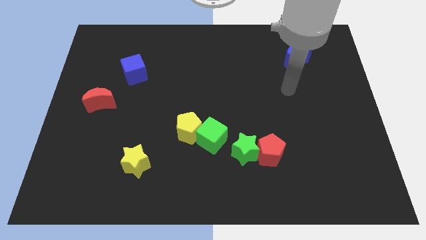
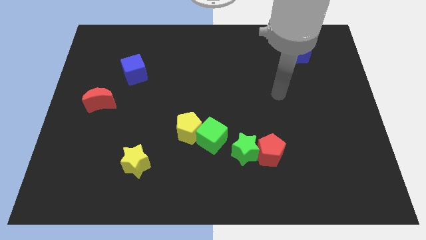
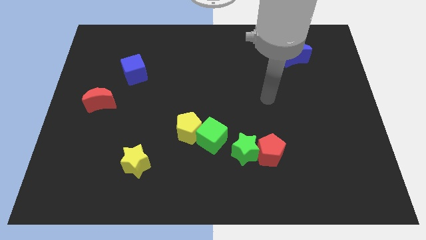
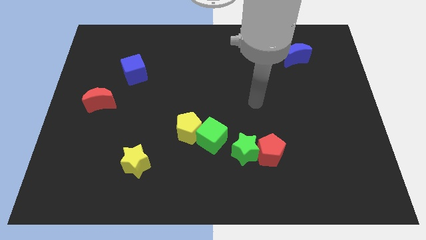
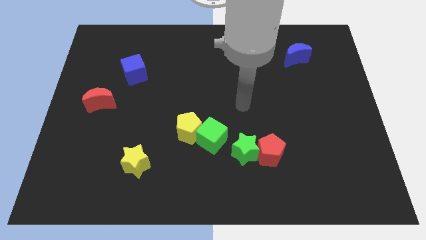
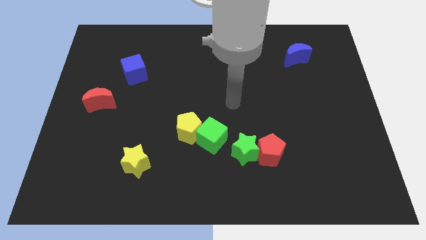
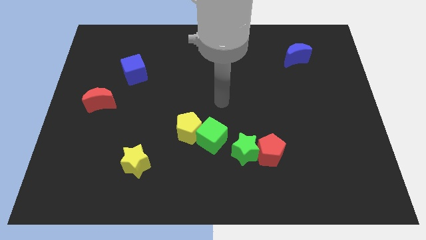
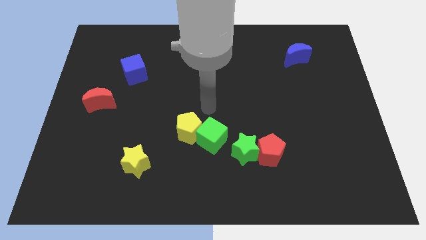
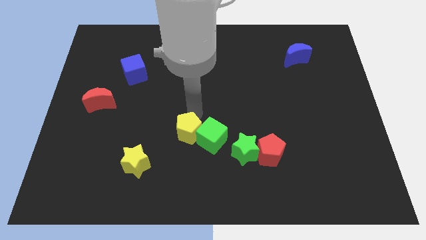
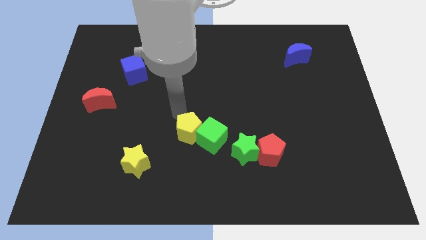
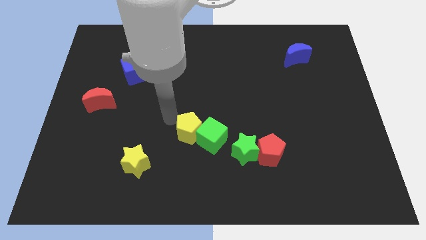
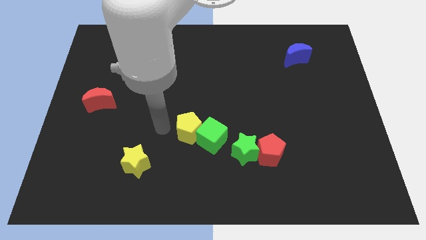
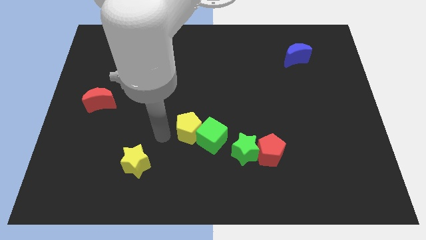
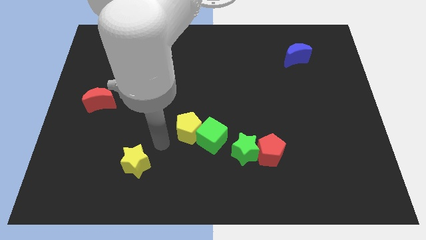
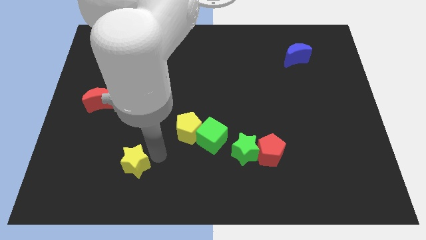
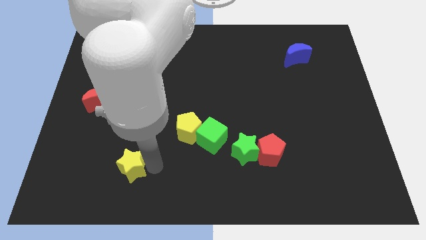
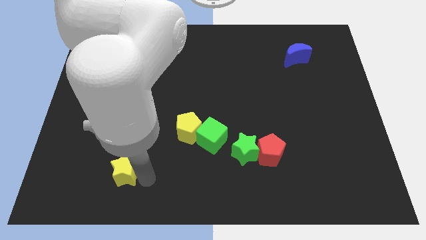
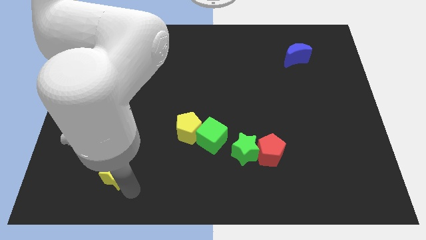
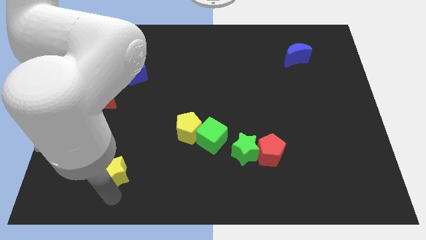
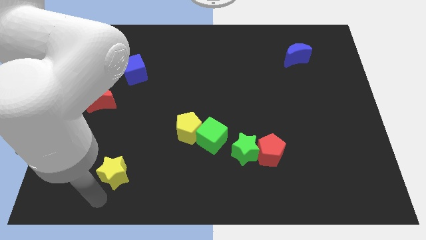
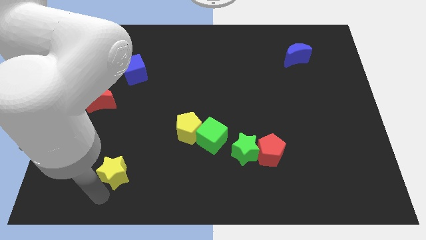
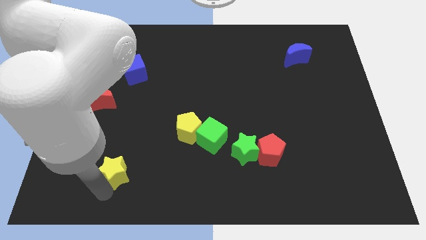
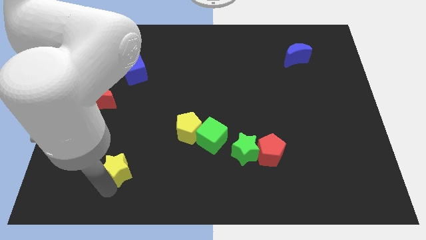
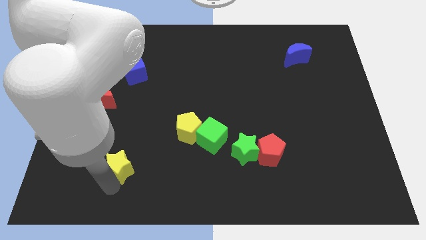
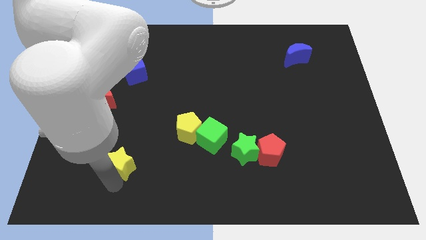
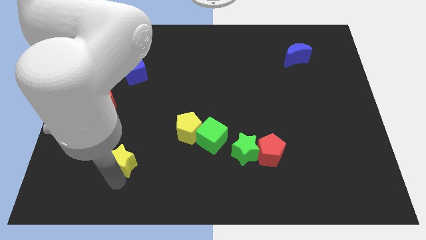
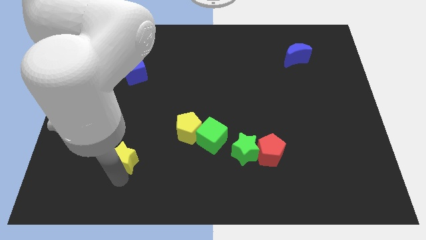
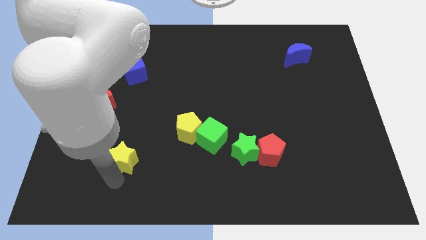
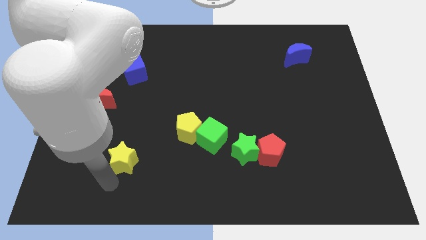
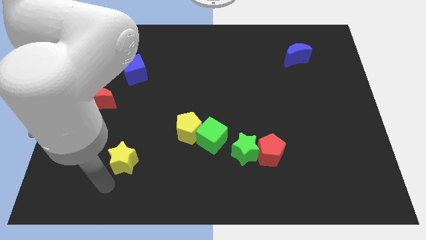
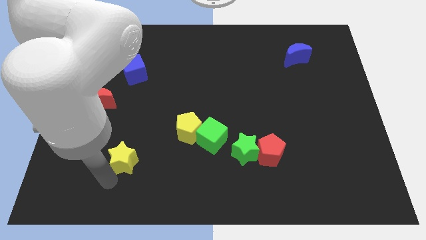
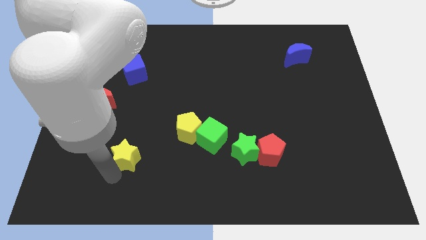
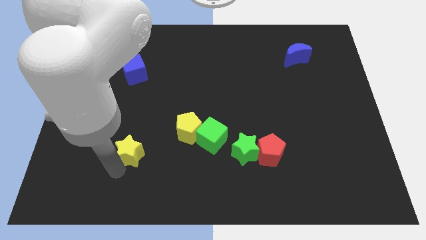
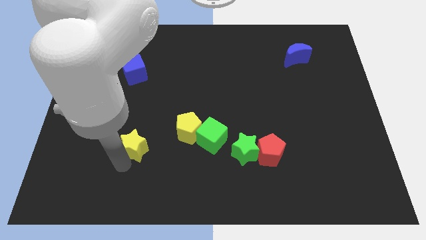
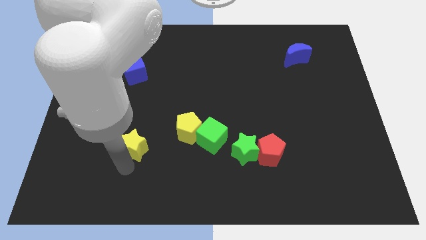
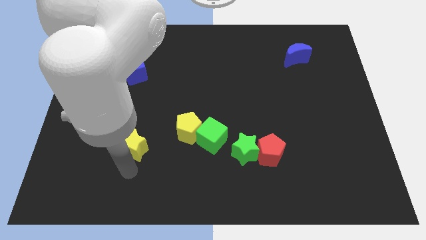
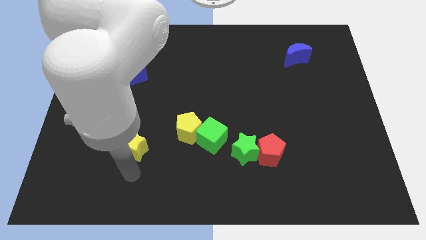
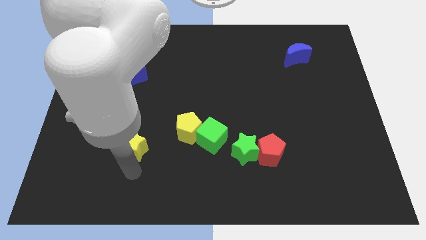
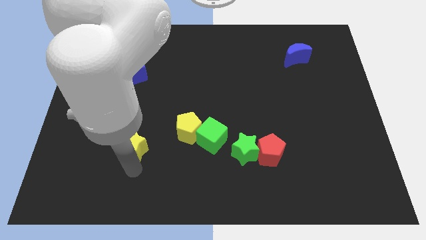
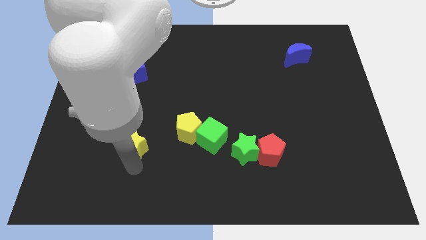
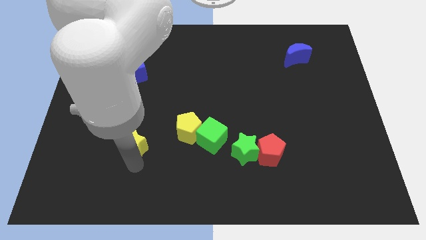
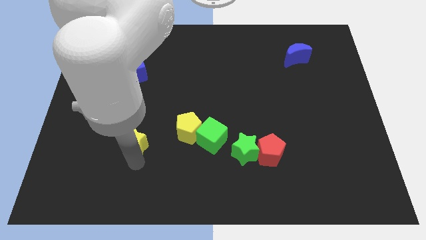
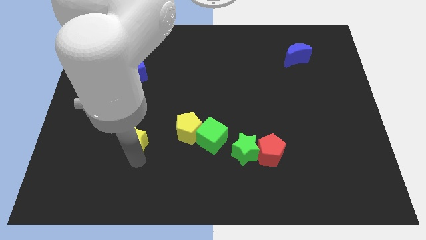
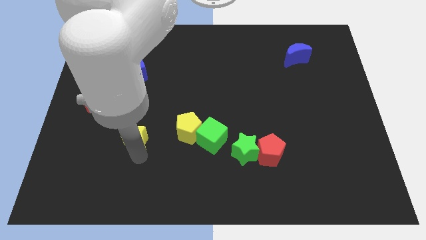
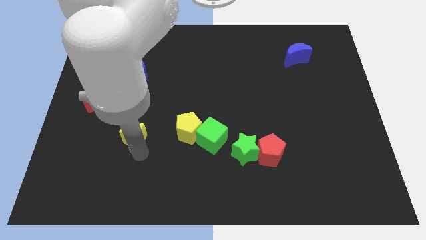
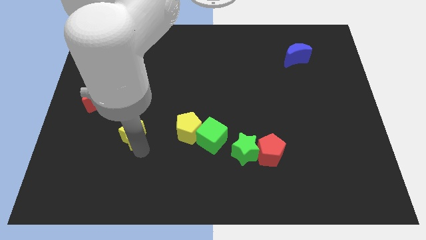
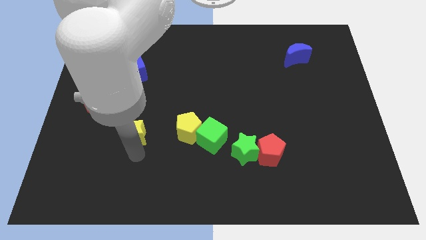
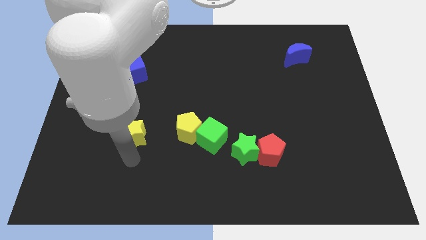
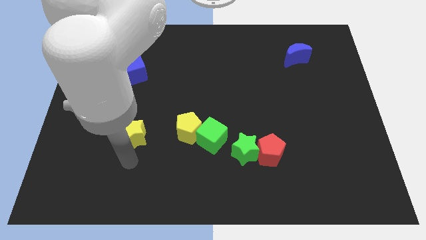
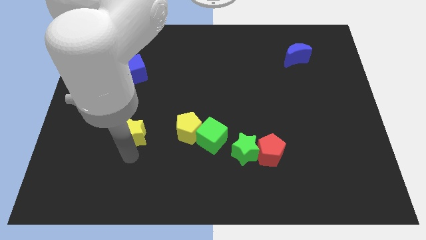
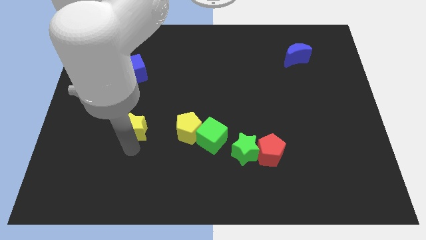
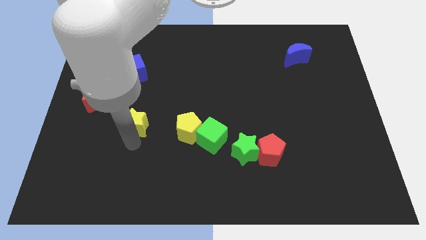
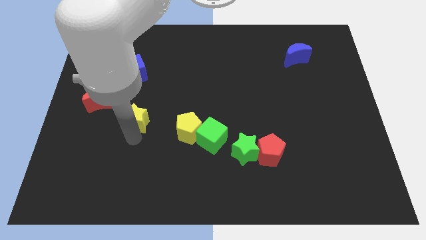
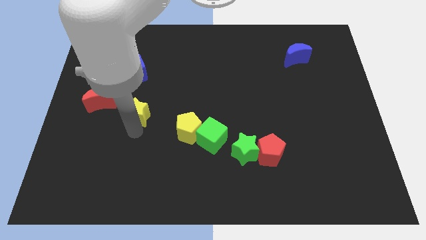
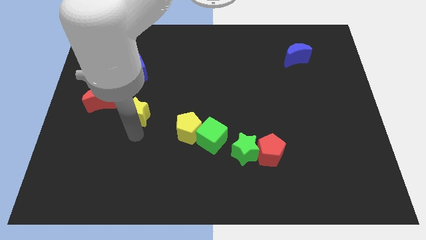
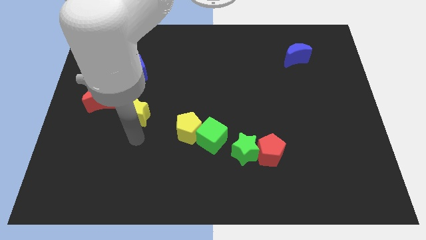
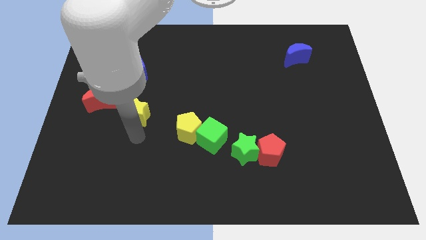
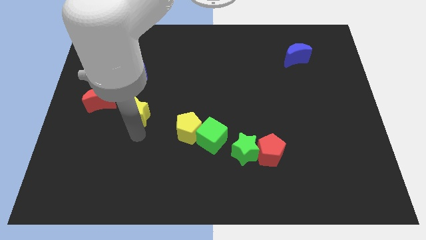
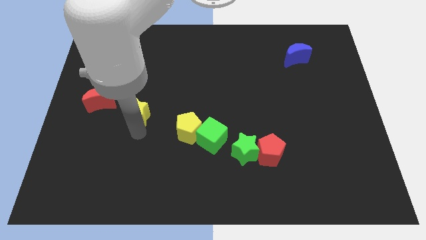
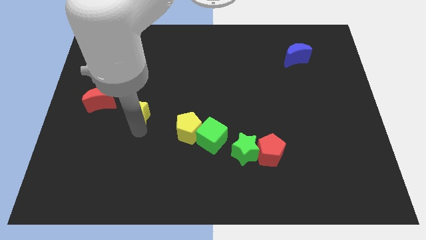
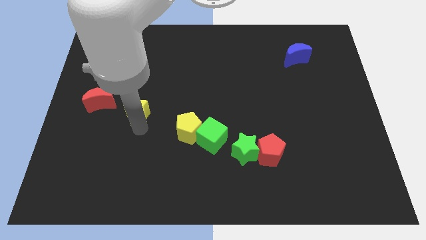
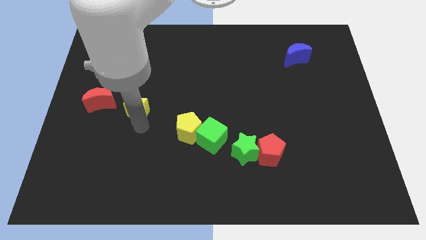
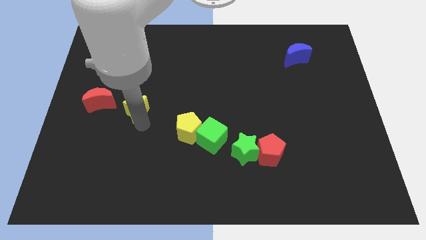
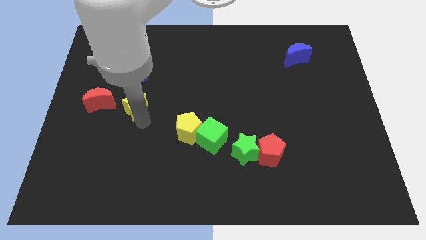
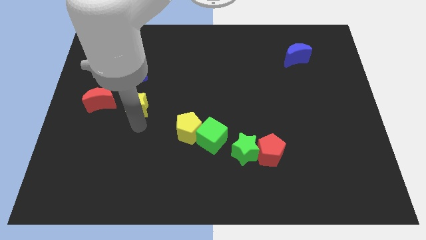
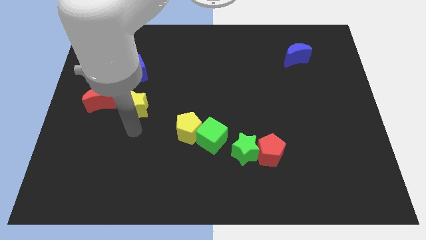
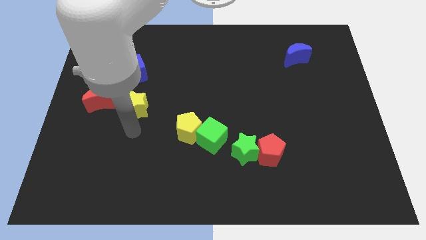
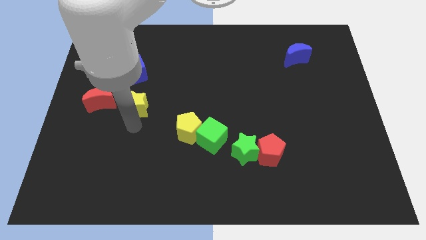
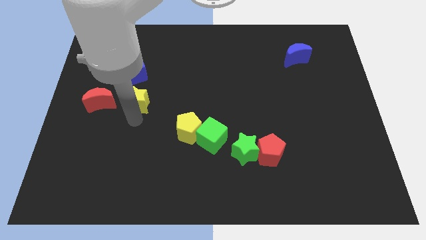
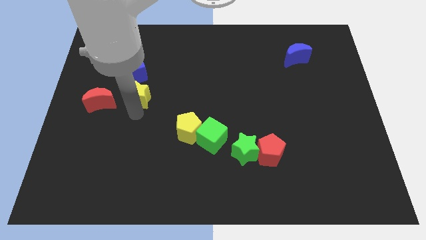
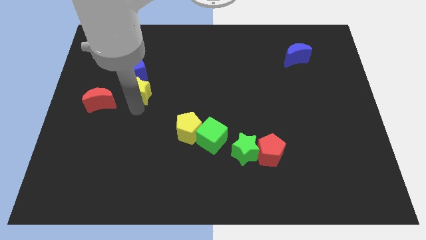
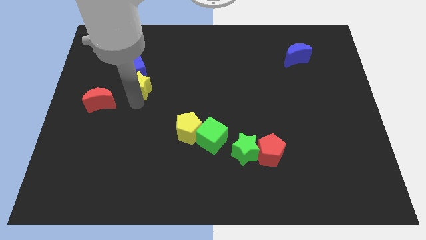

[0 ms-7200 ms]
push the yellow star upwards

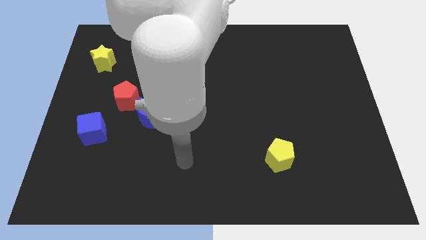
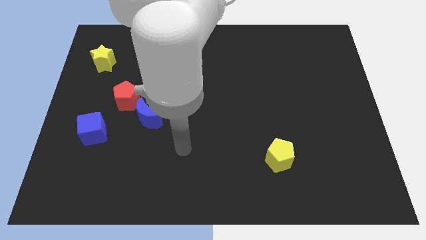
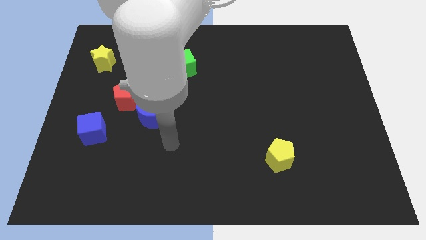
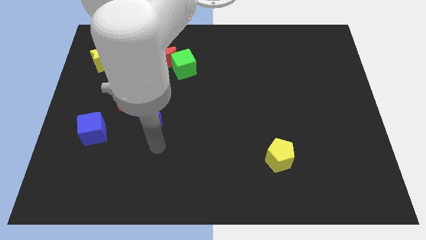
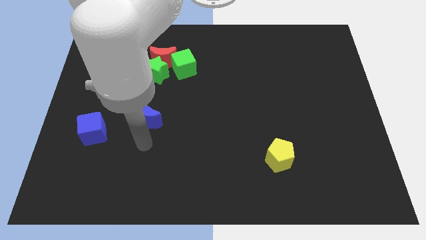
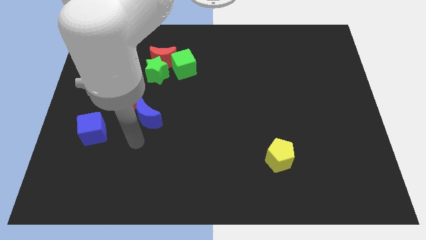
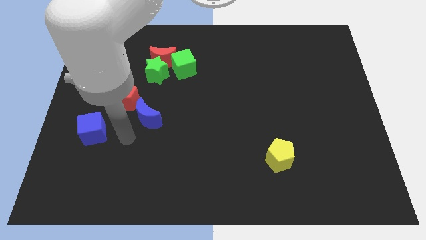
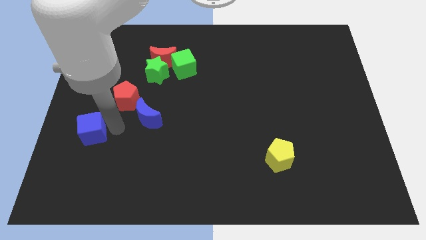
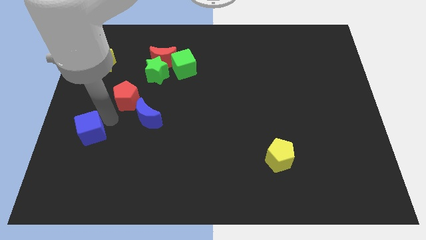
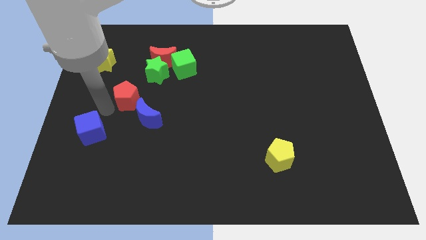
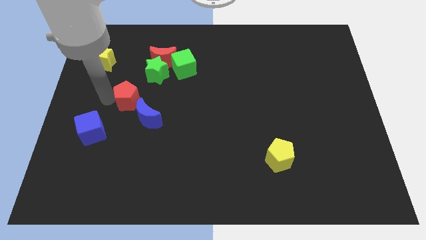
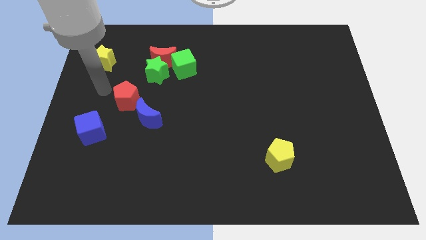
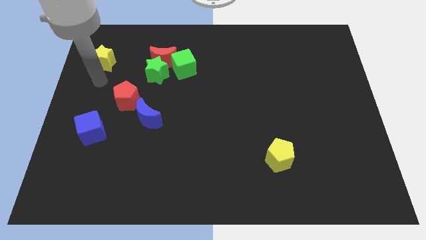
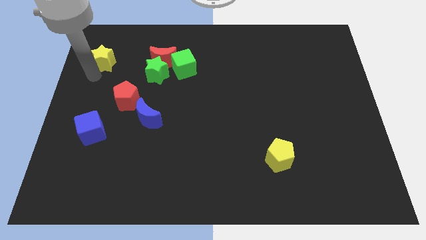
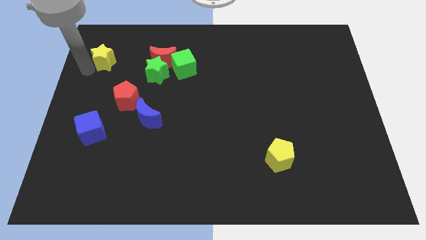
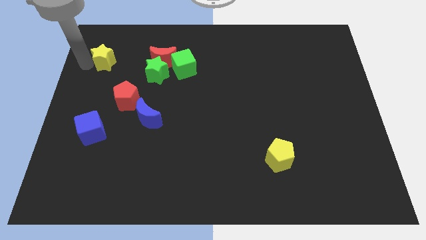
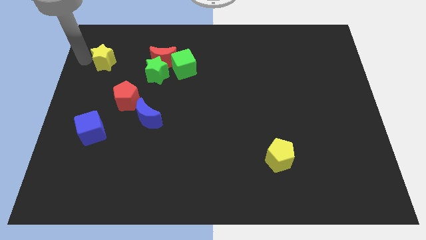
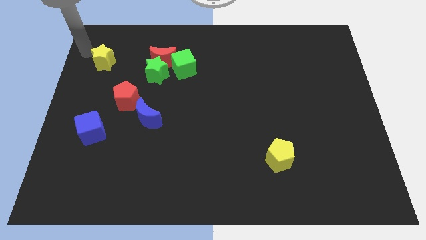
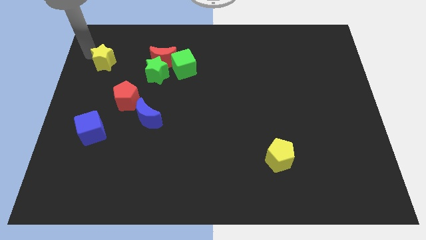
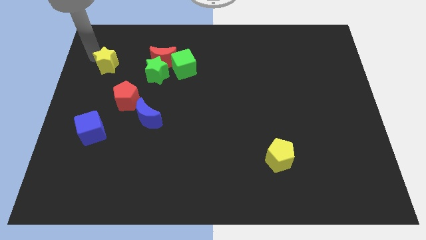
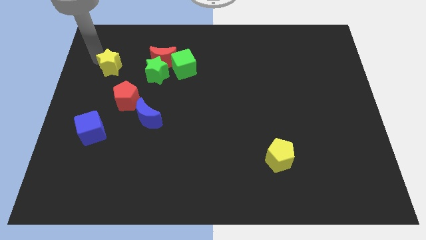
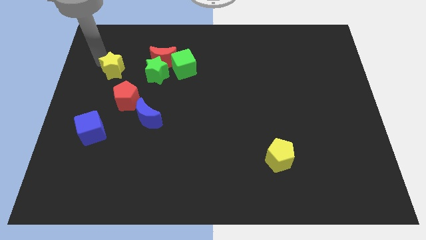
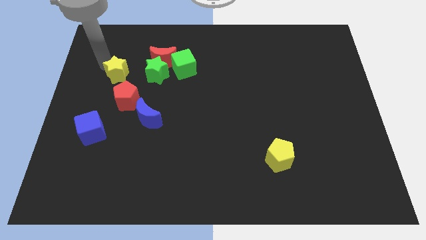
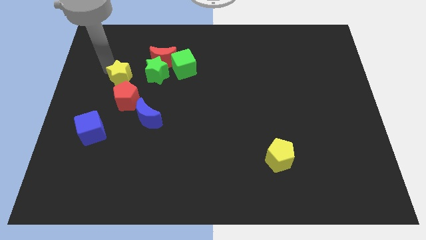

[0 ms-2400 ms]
slightly move the yellow star down and then right
